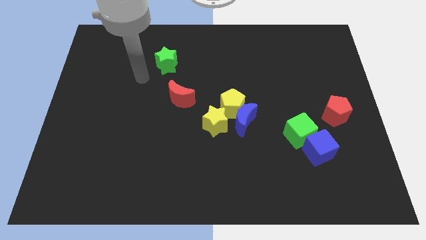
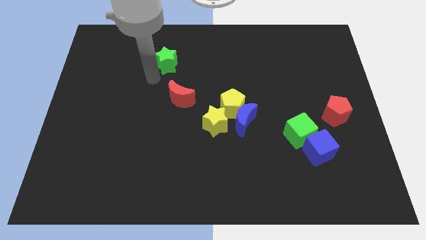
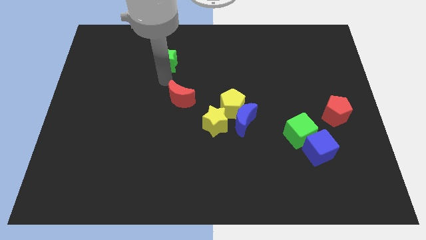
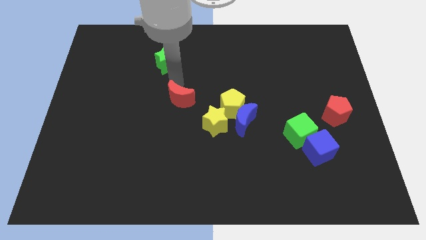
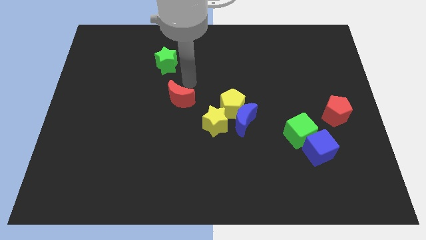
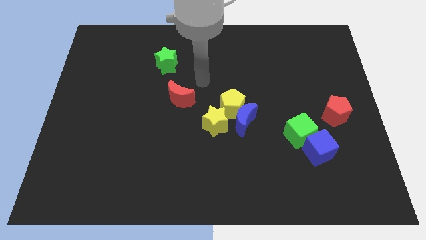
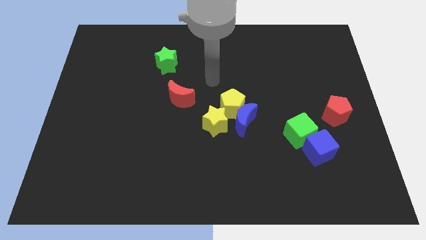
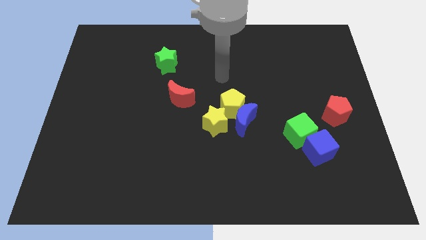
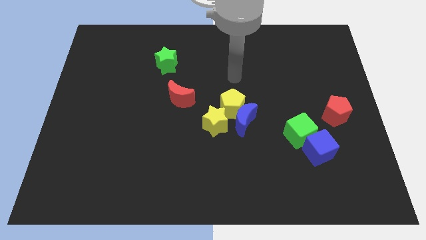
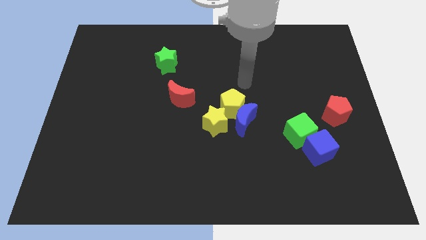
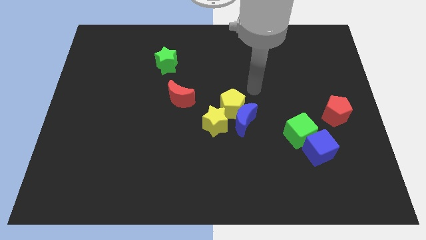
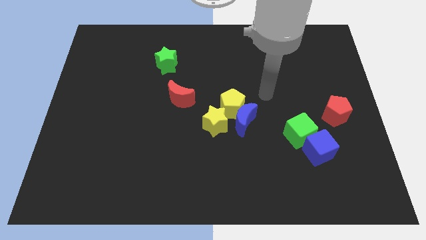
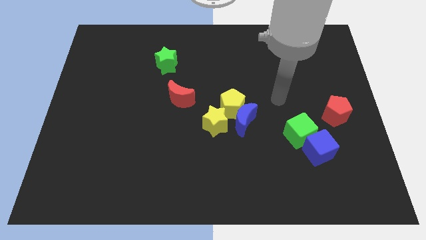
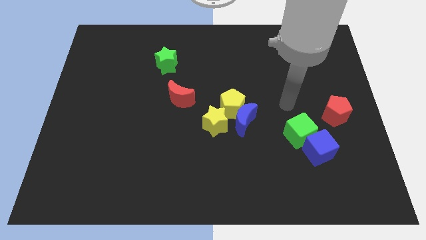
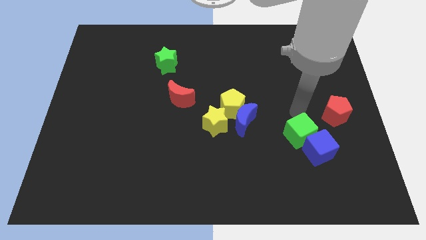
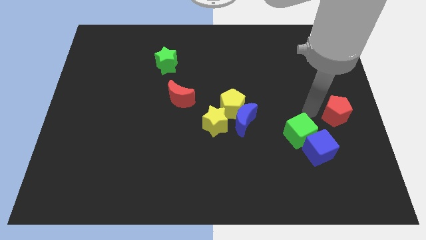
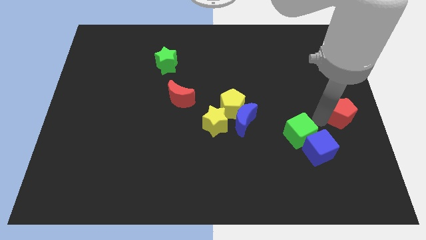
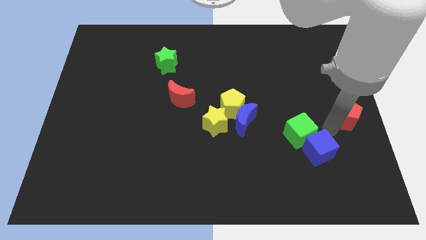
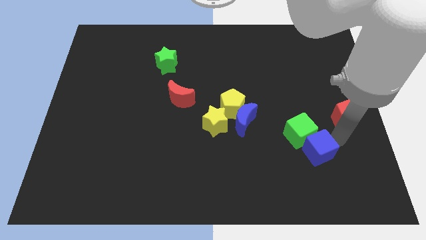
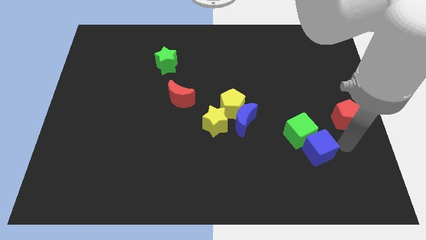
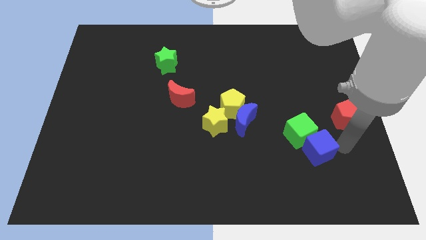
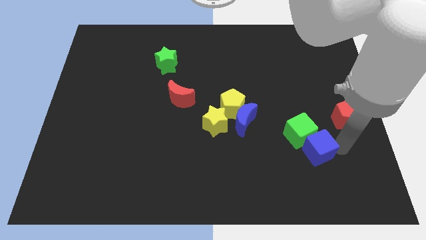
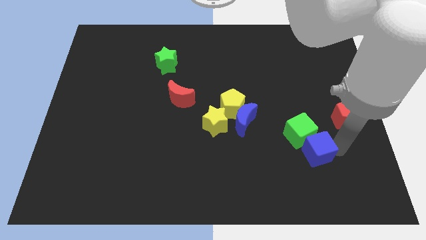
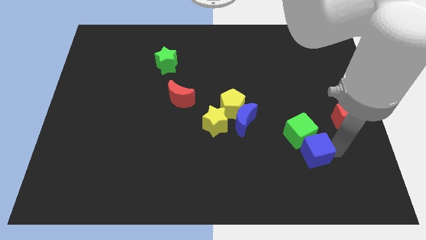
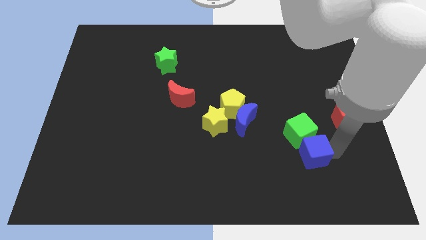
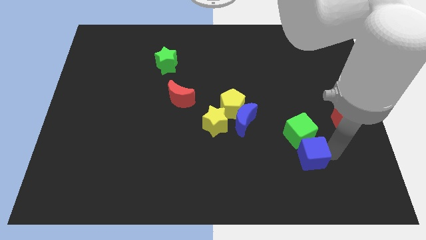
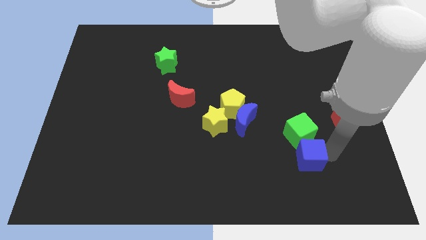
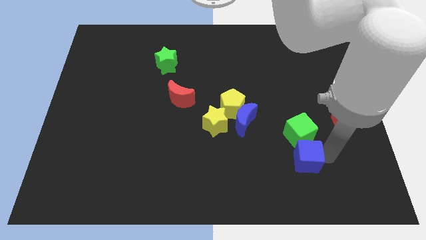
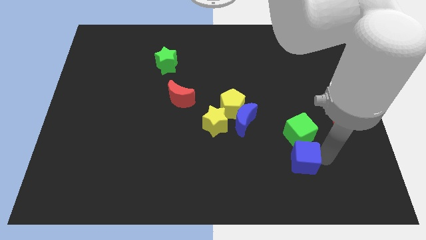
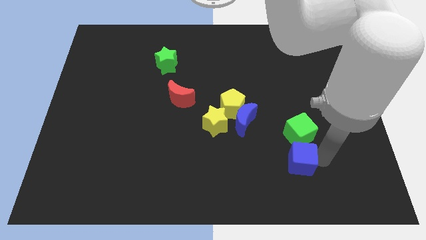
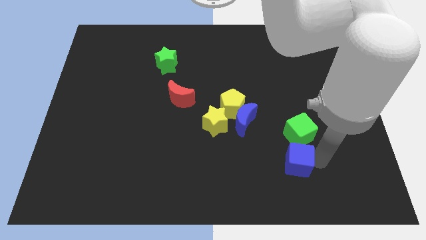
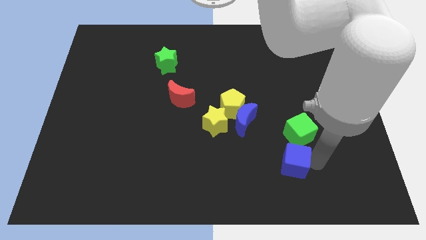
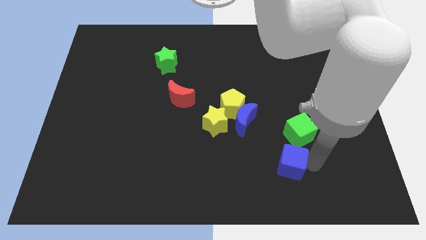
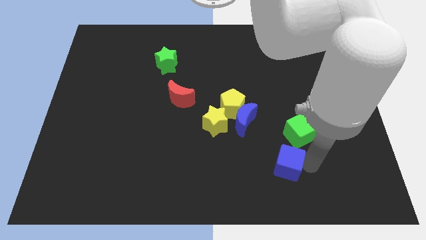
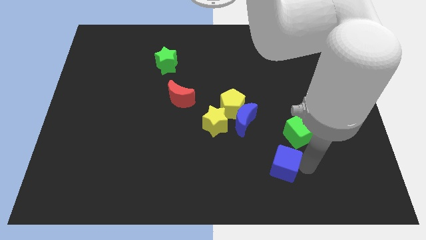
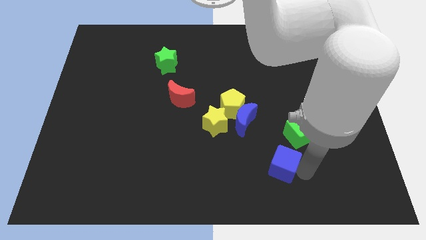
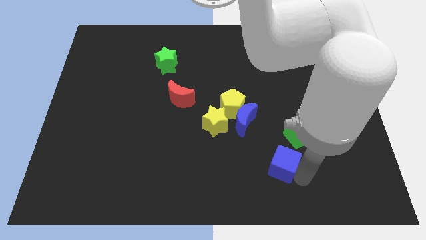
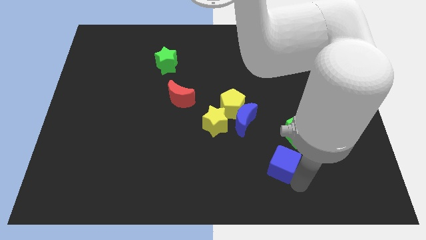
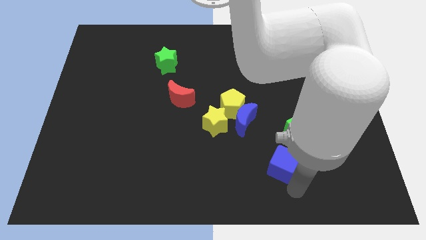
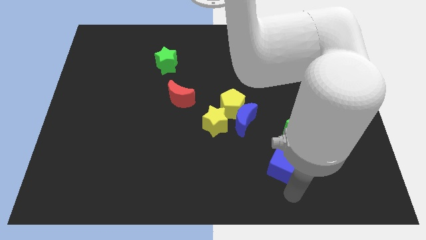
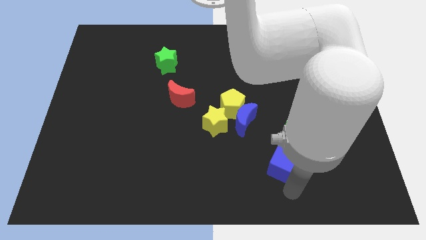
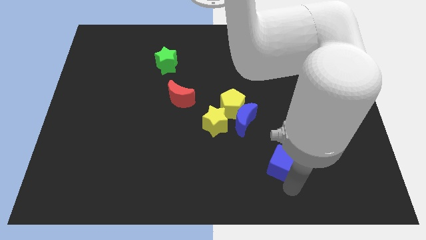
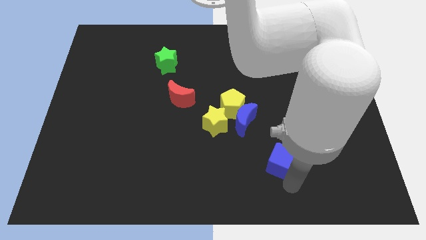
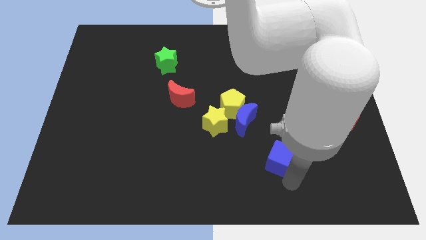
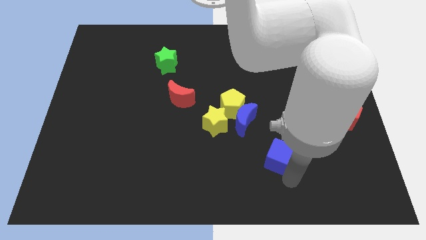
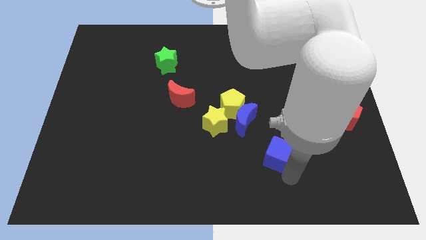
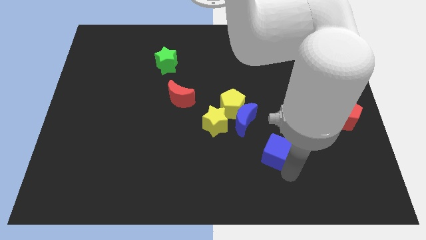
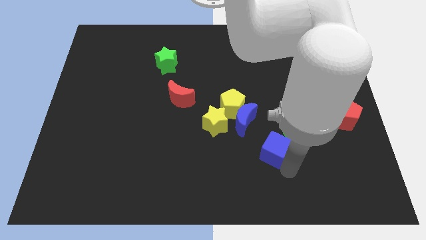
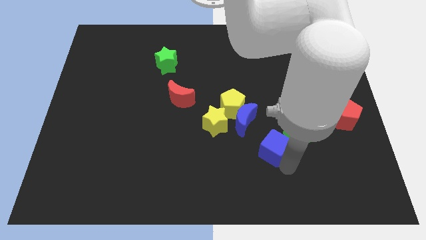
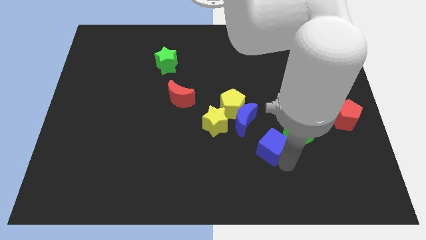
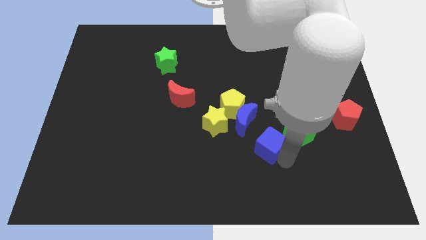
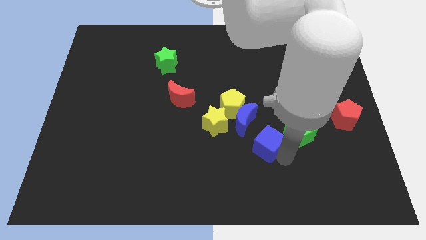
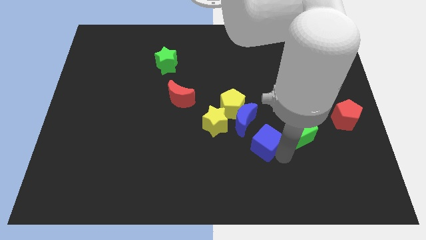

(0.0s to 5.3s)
slightly slide the blue cube up and then to the left

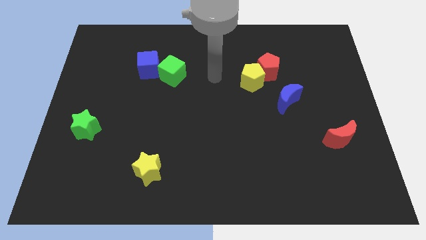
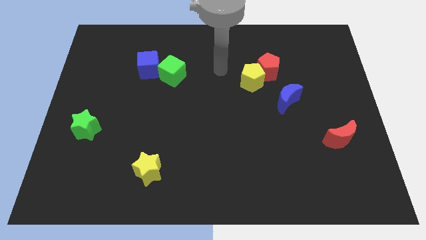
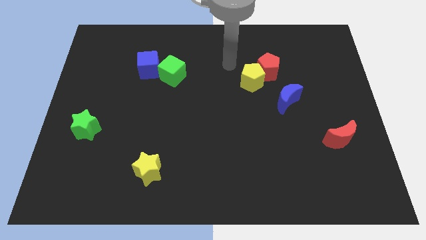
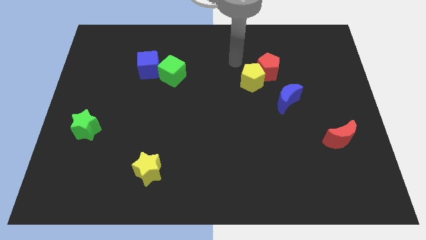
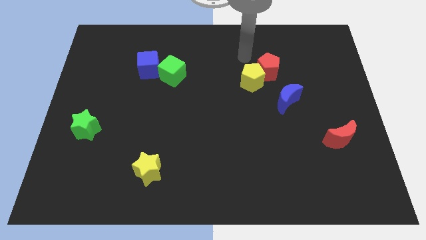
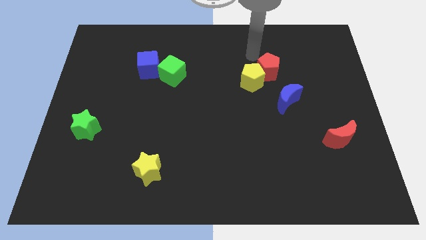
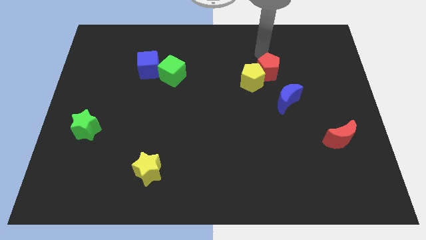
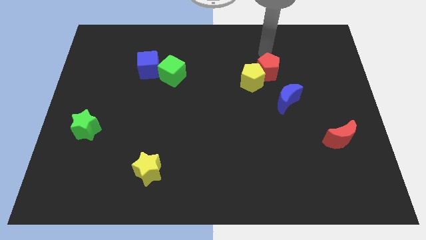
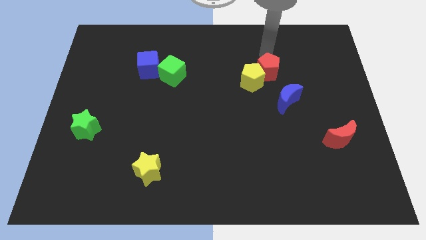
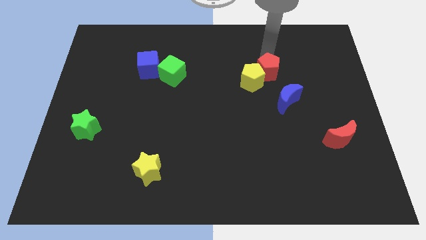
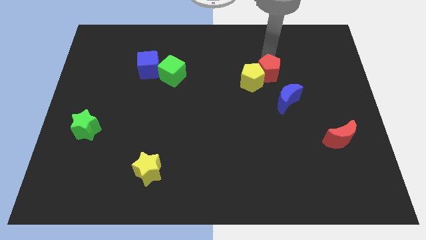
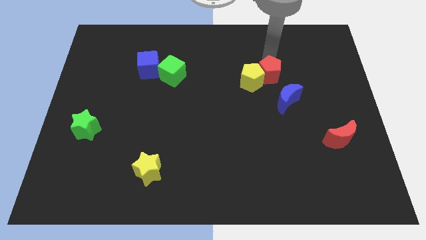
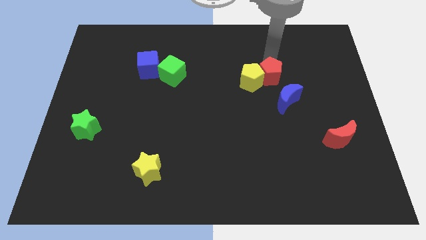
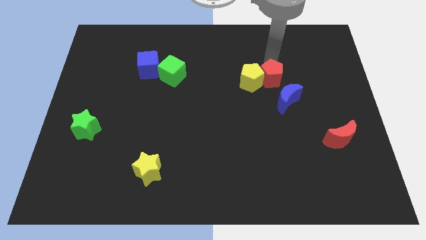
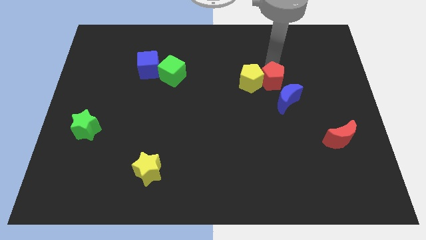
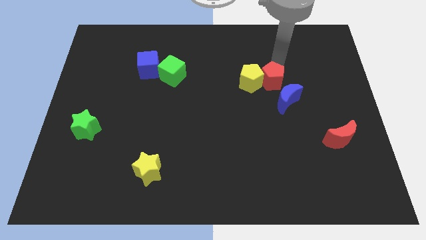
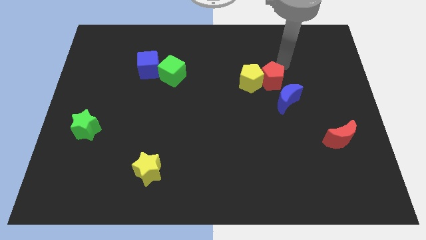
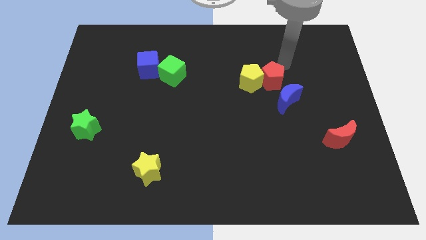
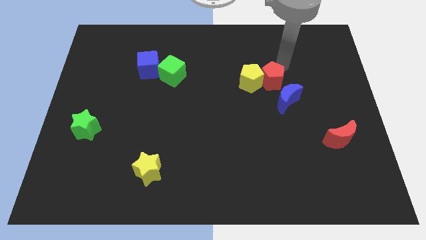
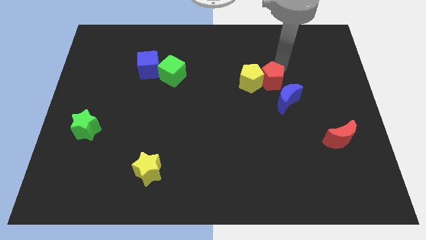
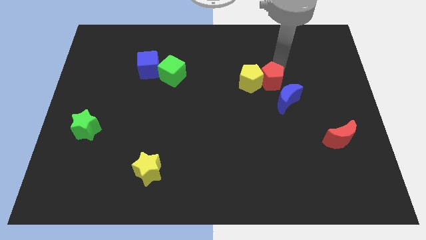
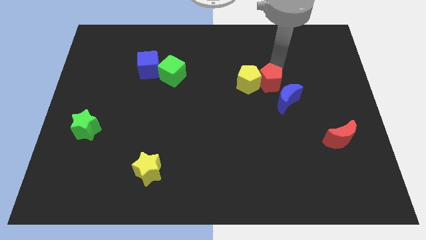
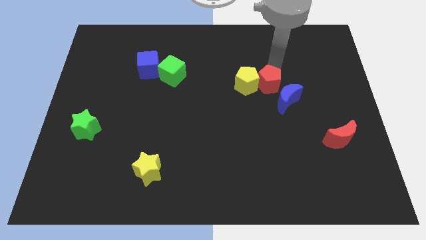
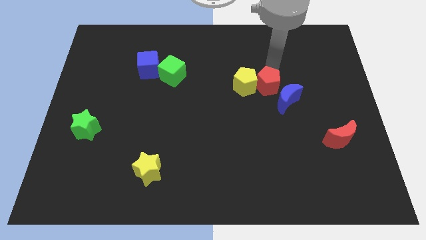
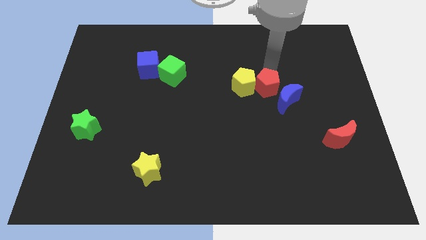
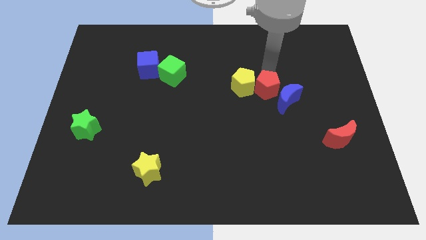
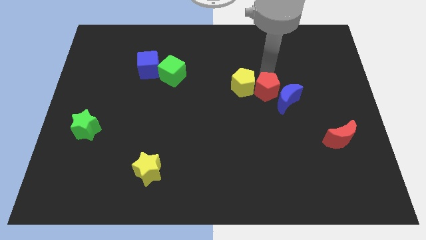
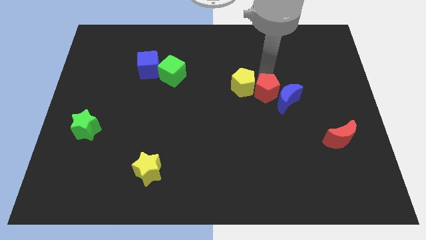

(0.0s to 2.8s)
push the red pentagon a bit downwards
